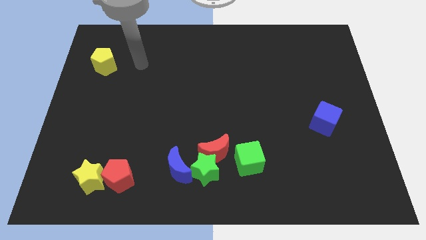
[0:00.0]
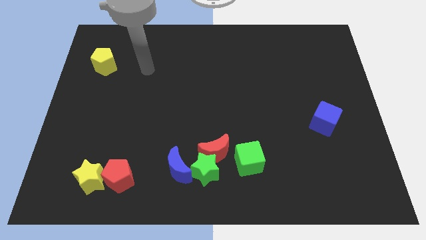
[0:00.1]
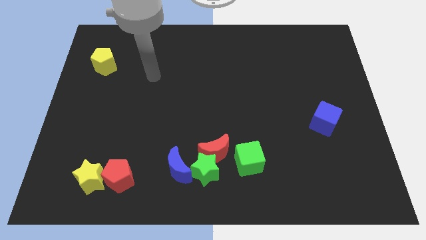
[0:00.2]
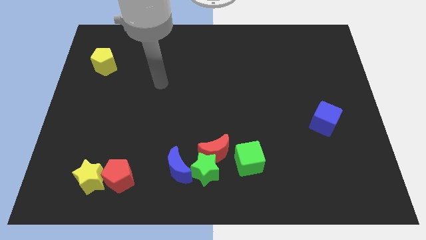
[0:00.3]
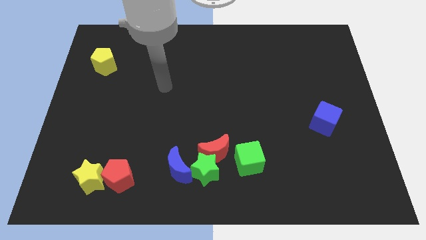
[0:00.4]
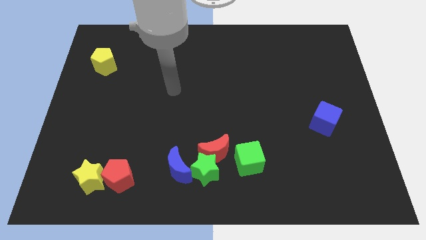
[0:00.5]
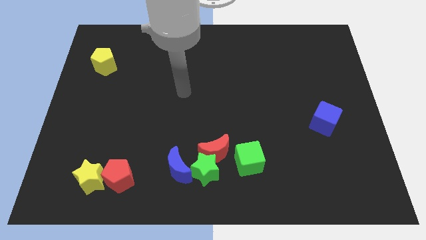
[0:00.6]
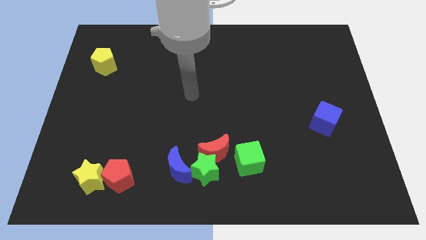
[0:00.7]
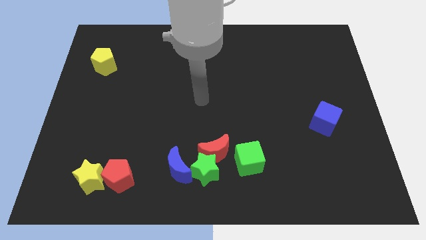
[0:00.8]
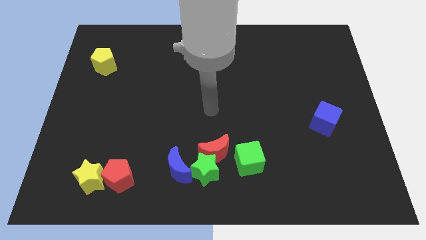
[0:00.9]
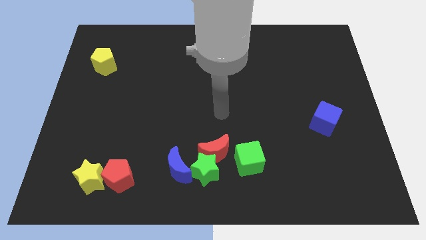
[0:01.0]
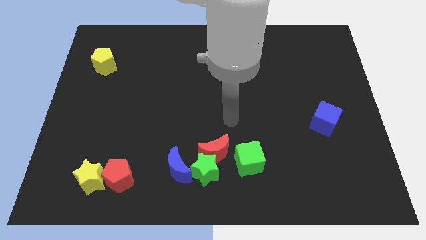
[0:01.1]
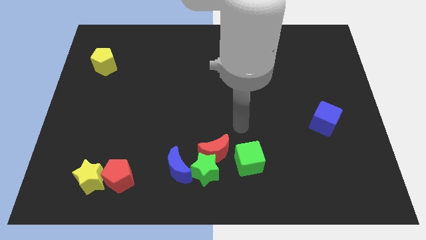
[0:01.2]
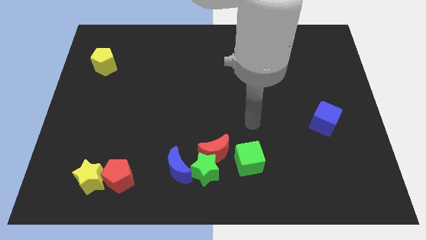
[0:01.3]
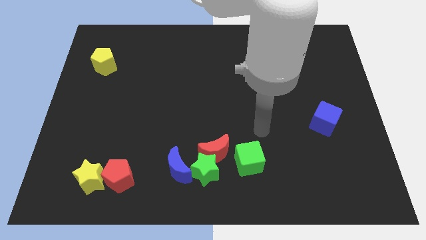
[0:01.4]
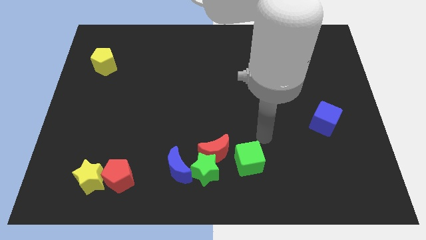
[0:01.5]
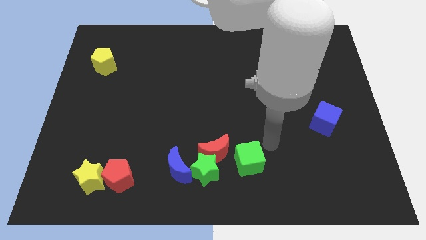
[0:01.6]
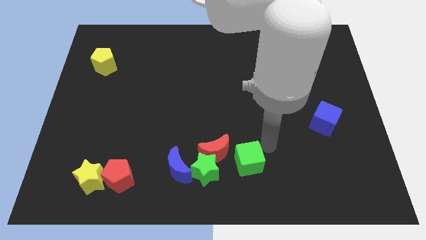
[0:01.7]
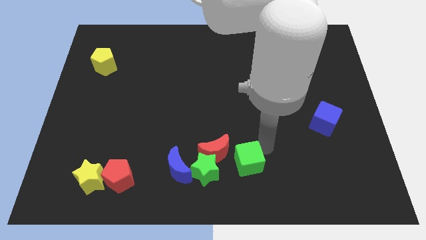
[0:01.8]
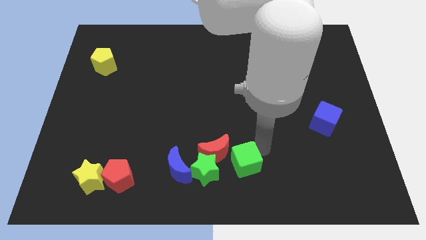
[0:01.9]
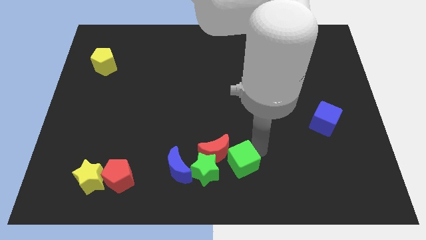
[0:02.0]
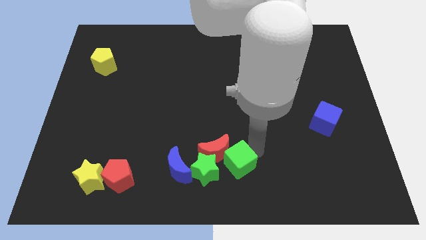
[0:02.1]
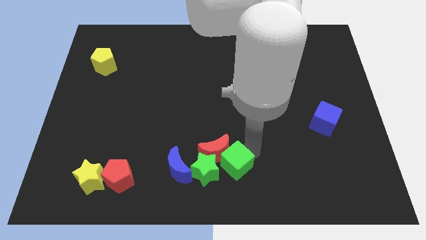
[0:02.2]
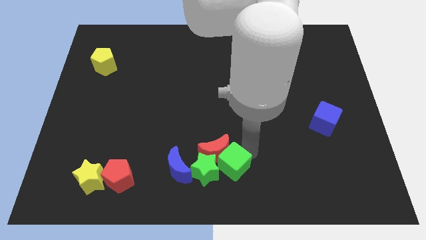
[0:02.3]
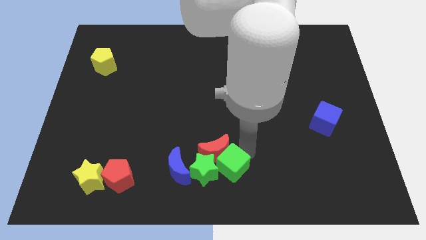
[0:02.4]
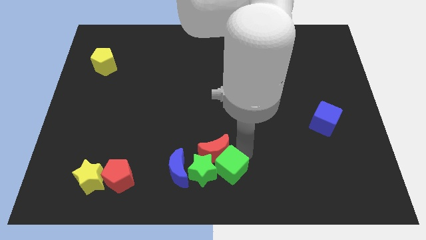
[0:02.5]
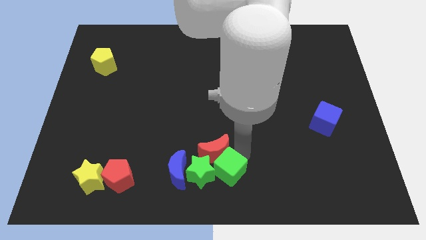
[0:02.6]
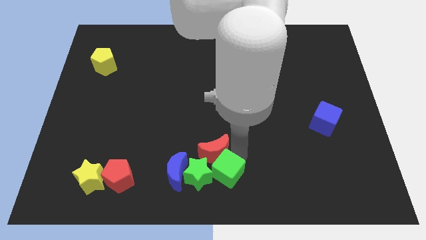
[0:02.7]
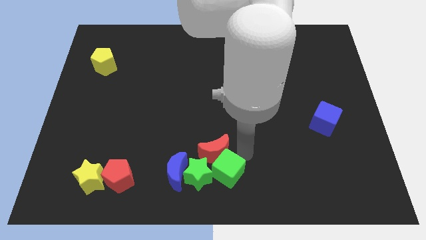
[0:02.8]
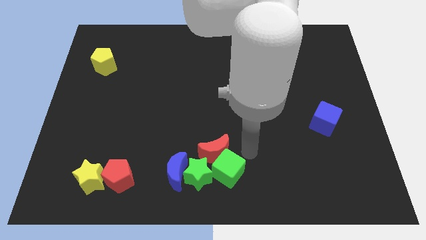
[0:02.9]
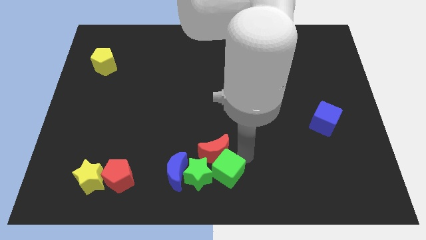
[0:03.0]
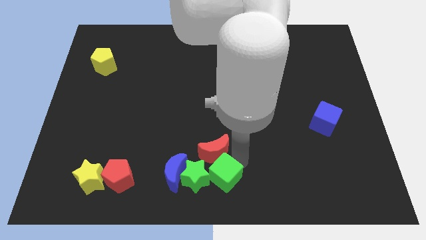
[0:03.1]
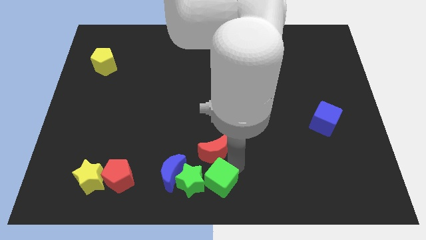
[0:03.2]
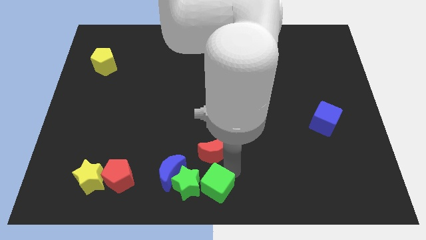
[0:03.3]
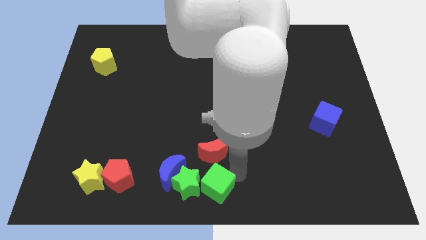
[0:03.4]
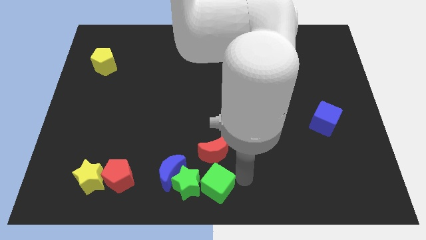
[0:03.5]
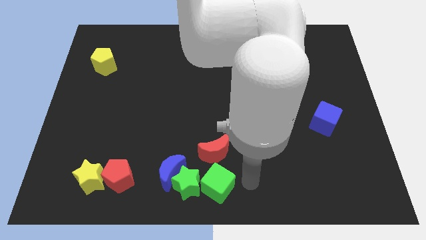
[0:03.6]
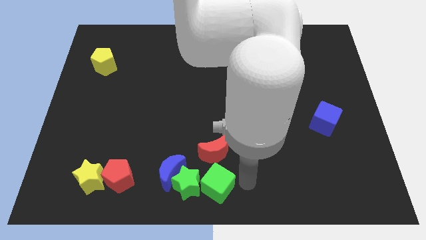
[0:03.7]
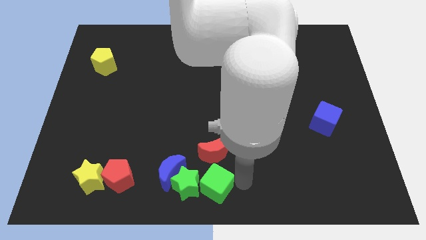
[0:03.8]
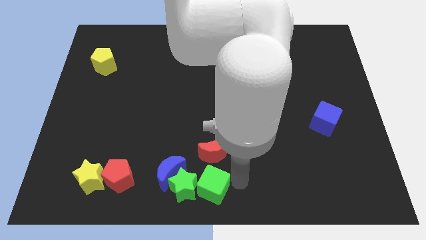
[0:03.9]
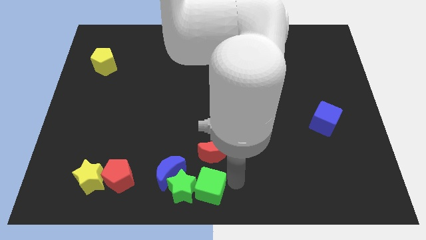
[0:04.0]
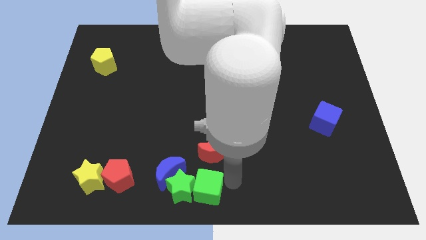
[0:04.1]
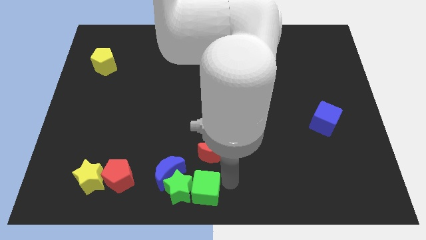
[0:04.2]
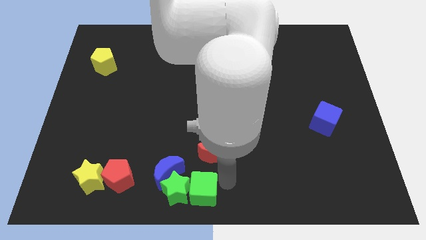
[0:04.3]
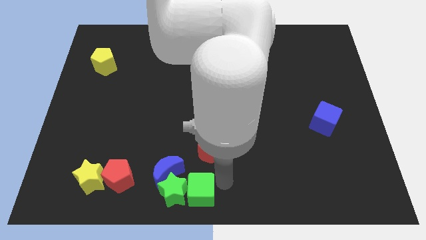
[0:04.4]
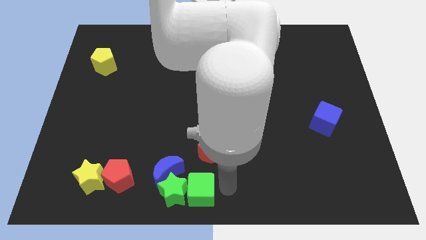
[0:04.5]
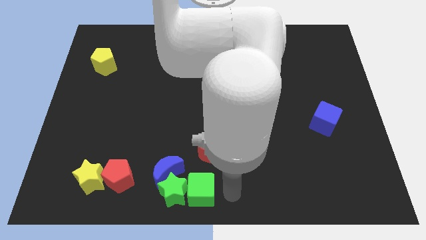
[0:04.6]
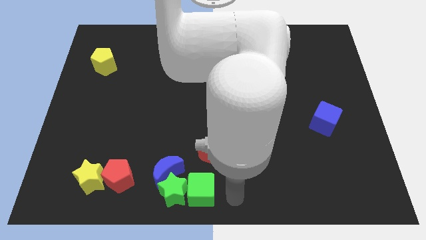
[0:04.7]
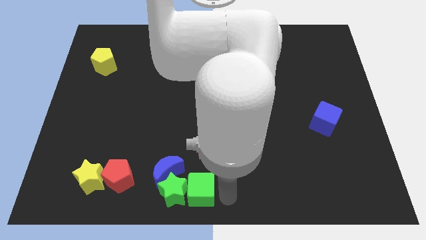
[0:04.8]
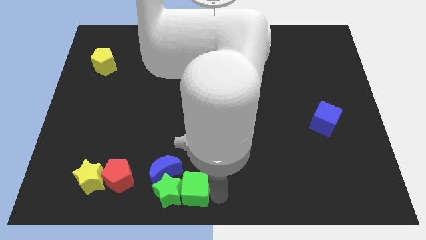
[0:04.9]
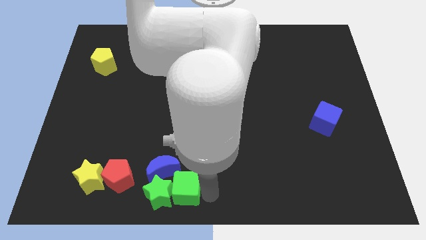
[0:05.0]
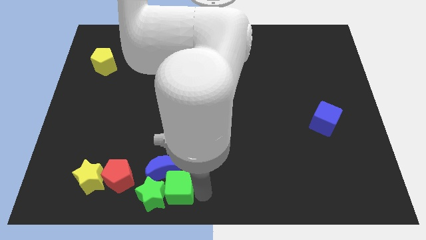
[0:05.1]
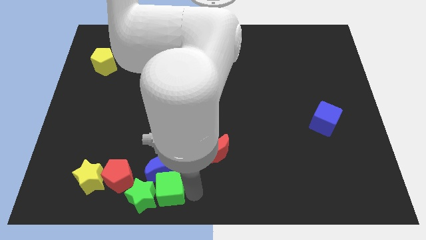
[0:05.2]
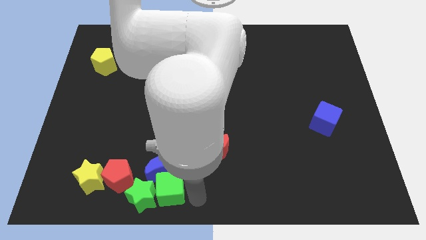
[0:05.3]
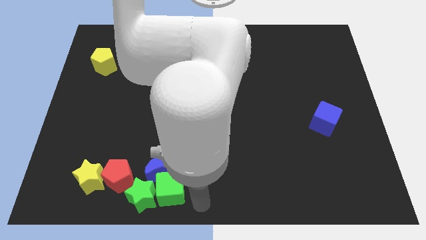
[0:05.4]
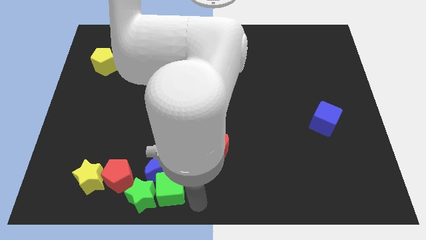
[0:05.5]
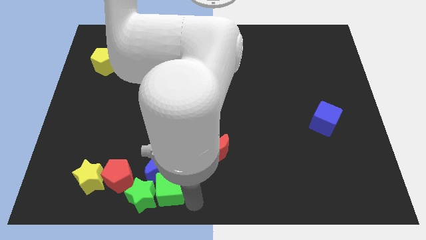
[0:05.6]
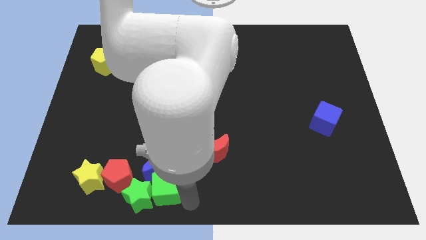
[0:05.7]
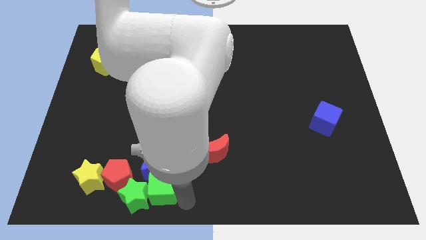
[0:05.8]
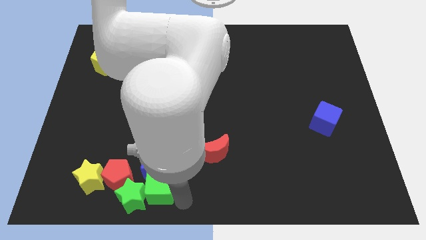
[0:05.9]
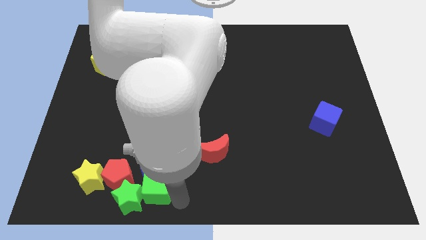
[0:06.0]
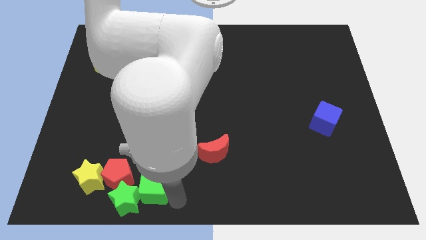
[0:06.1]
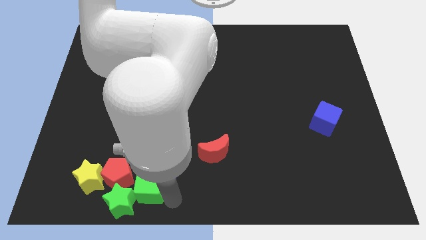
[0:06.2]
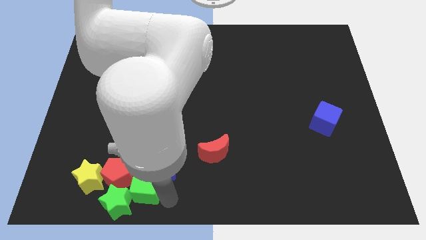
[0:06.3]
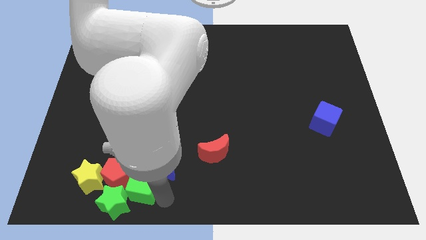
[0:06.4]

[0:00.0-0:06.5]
move the green cube to the red pentagon
